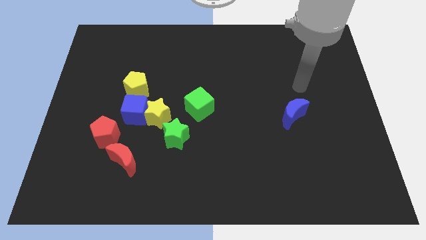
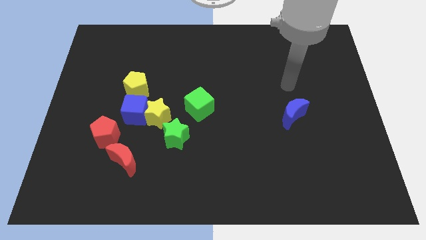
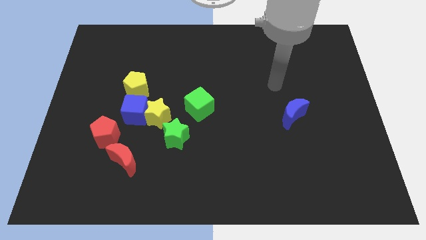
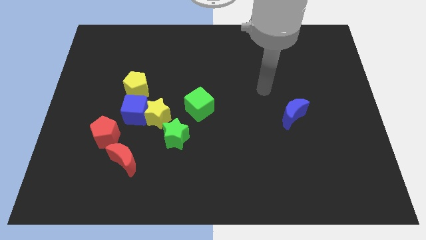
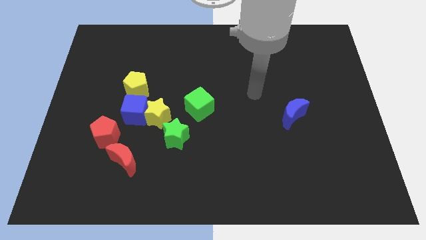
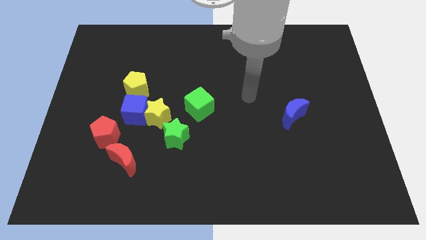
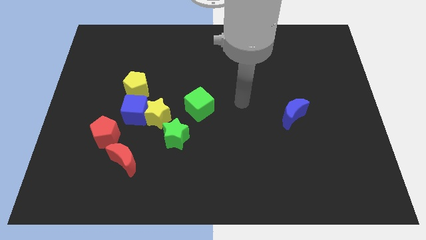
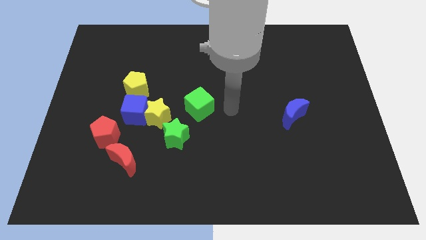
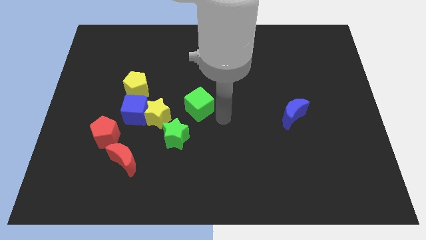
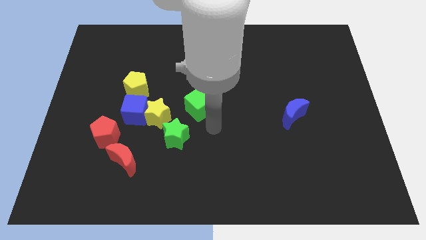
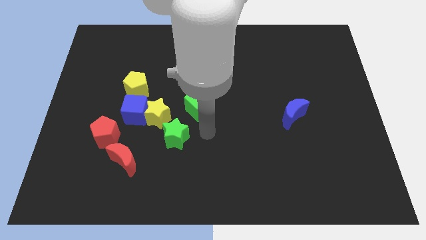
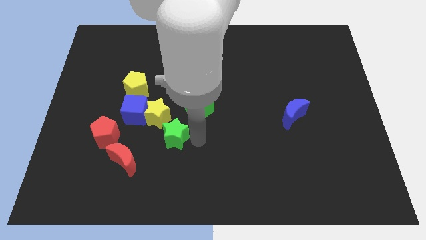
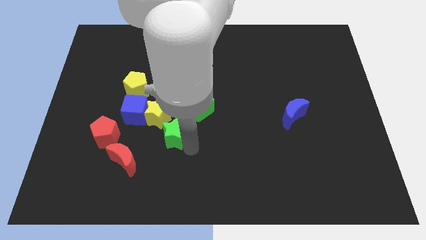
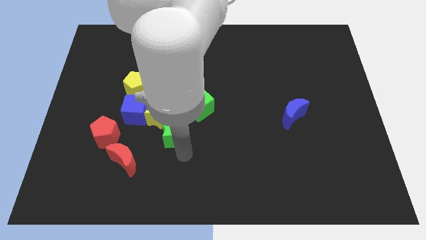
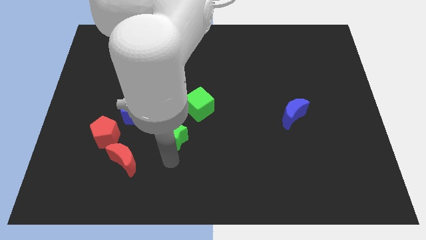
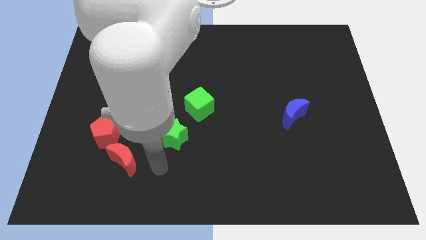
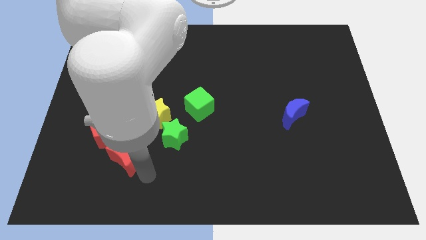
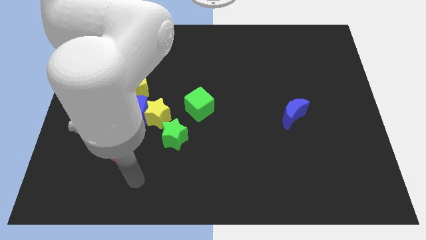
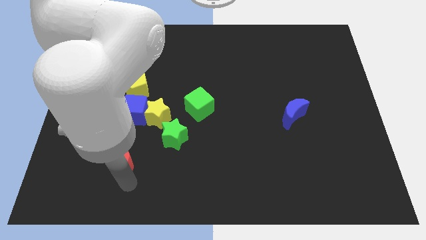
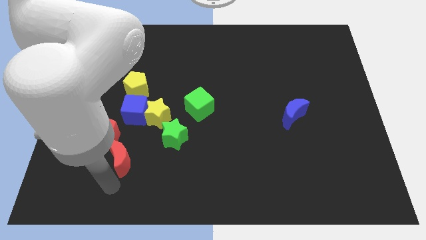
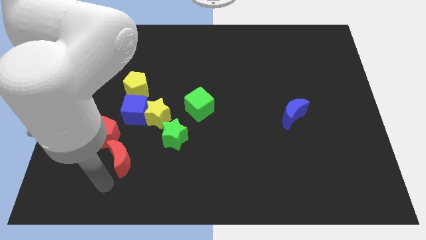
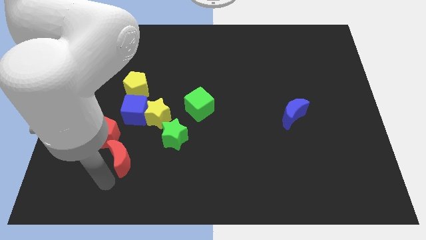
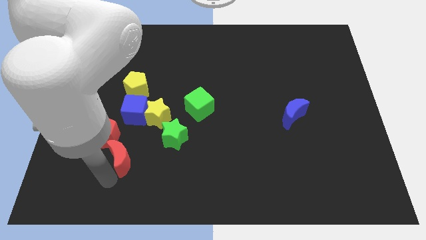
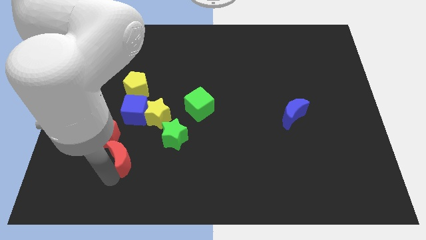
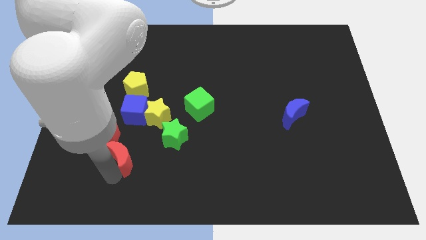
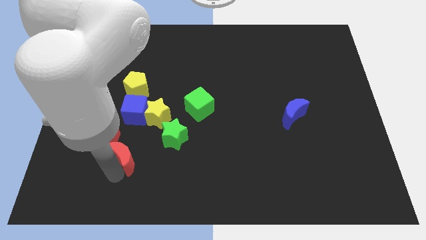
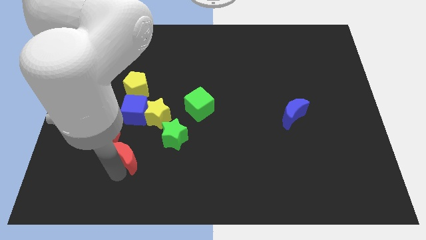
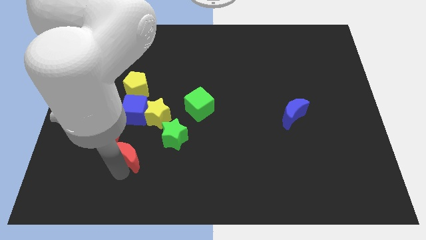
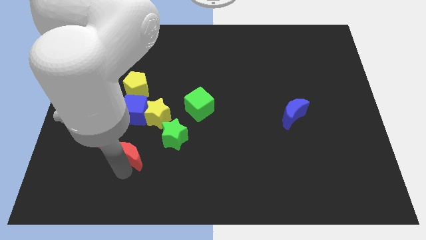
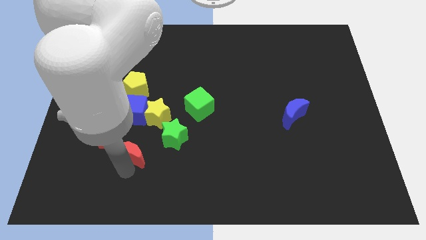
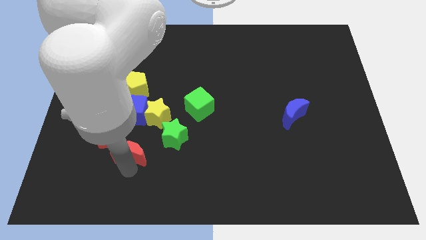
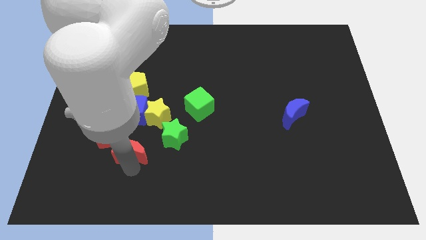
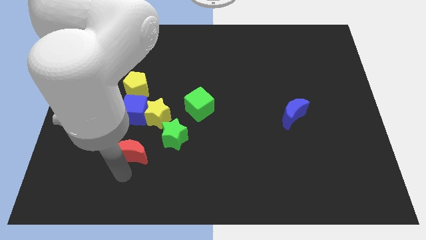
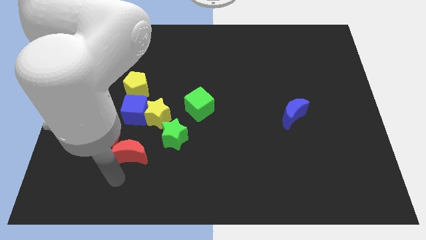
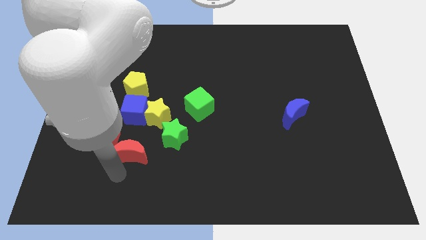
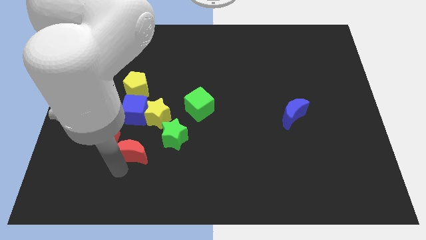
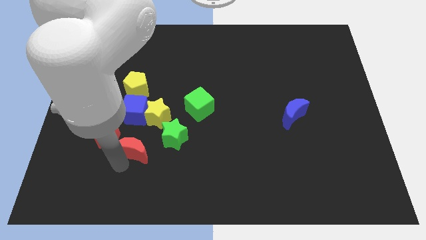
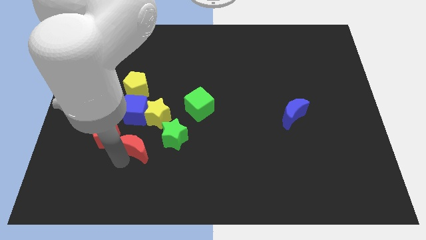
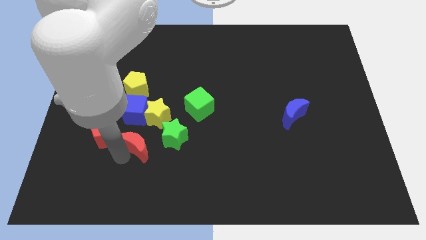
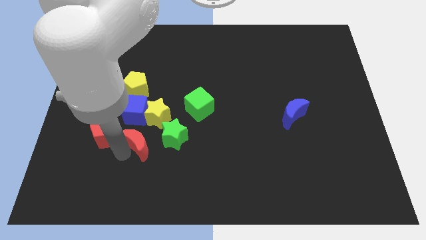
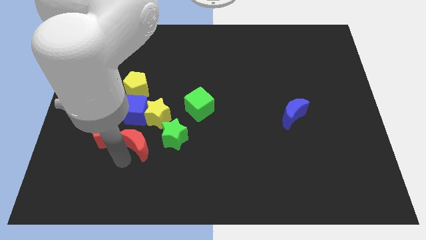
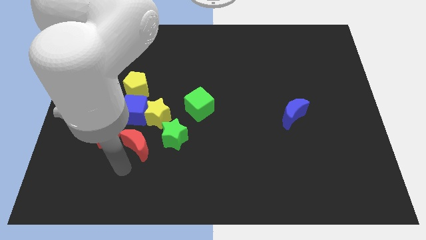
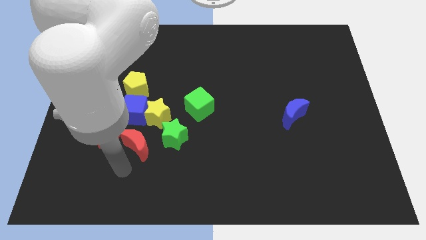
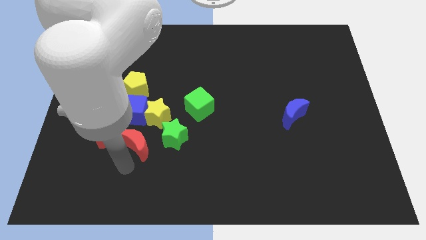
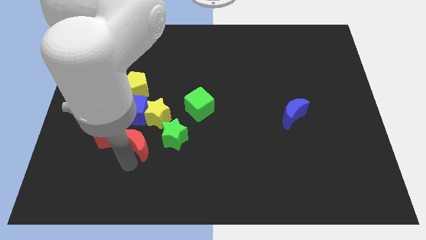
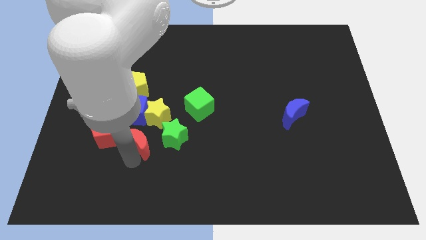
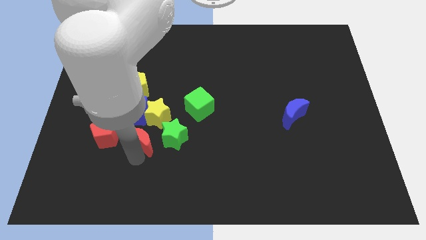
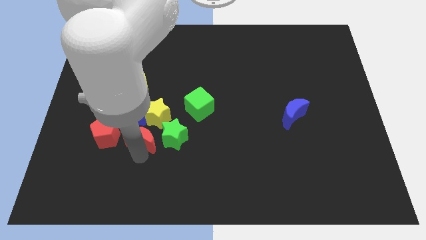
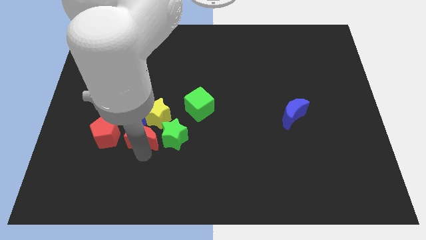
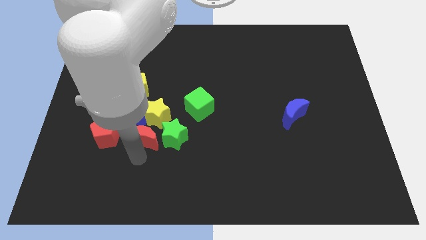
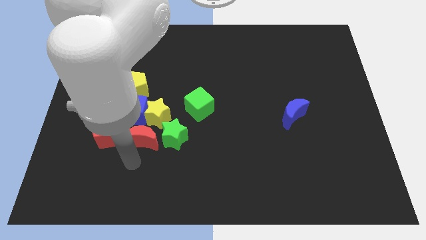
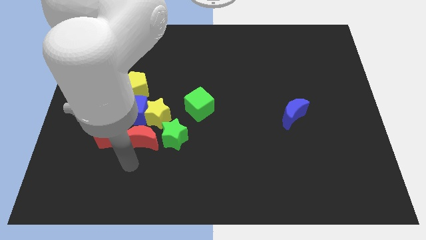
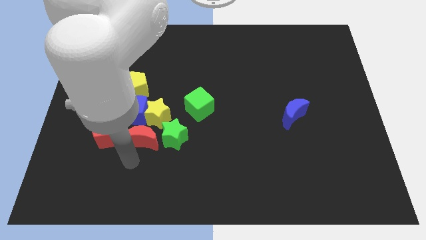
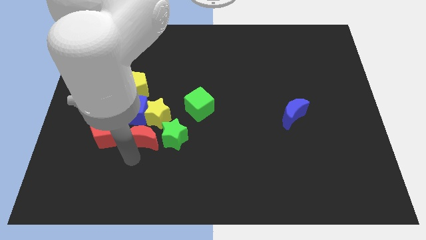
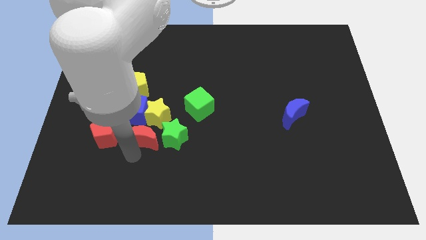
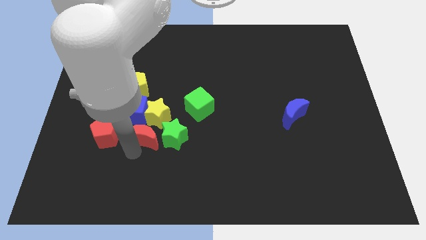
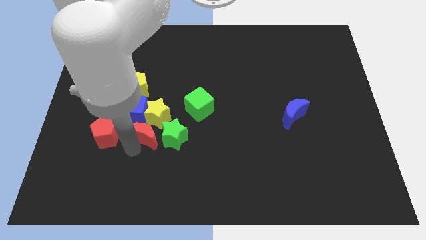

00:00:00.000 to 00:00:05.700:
push the red moon close to the yellow star

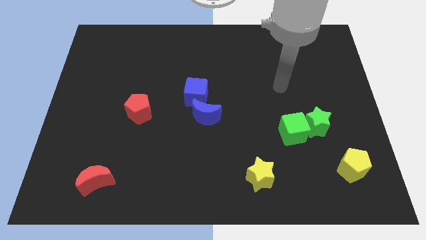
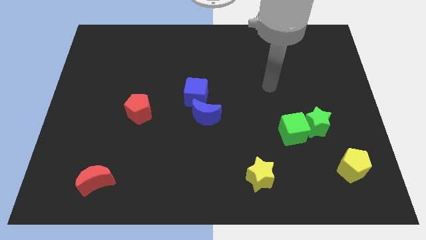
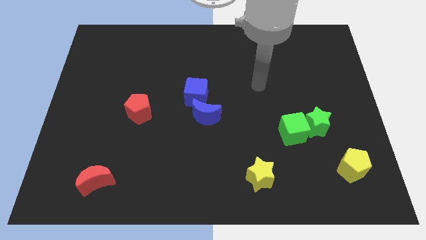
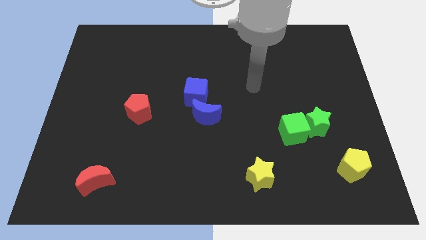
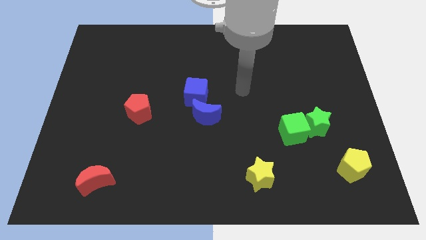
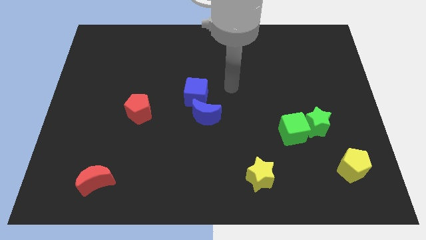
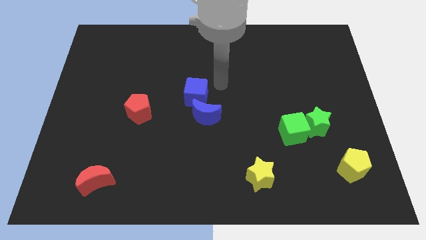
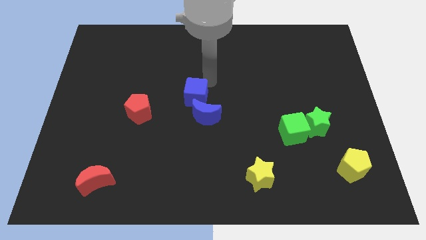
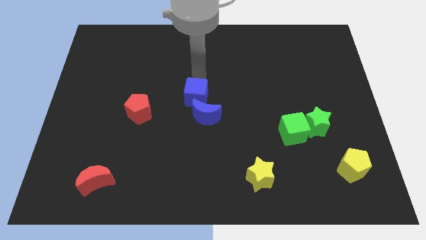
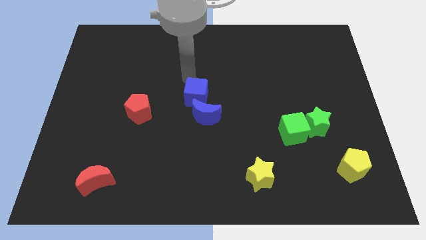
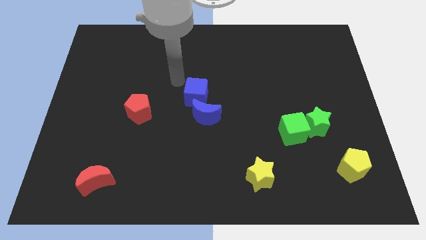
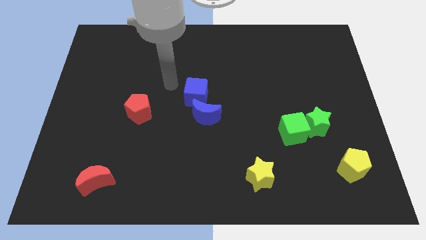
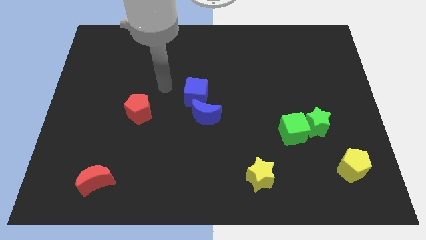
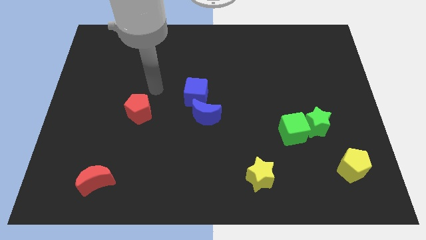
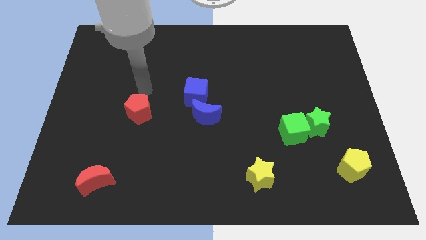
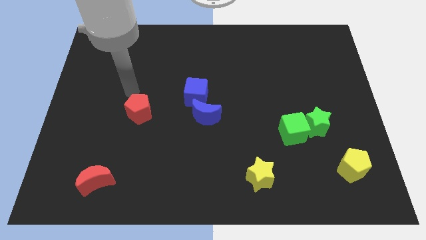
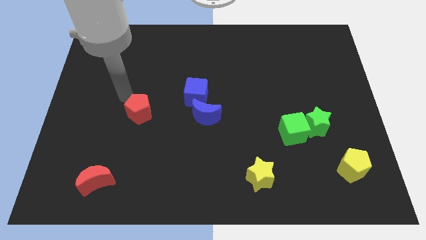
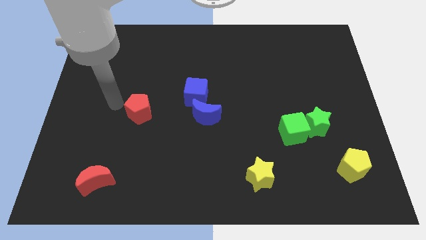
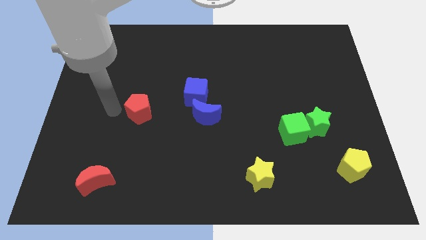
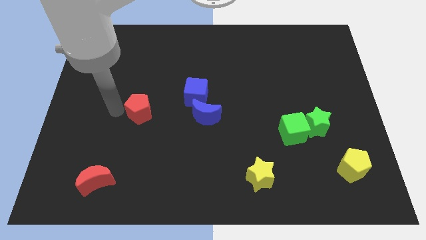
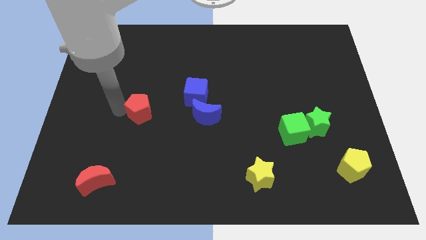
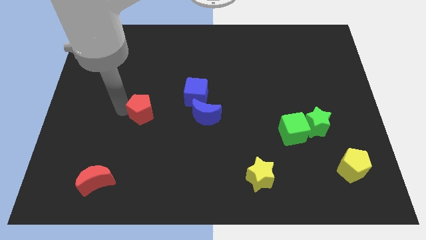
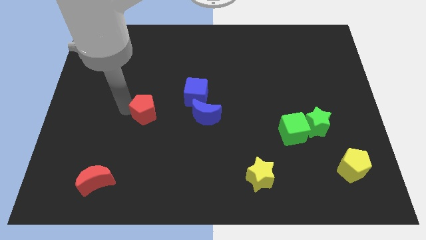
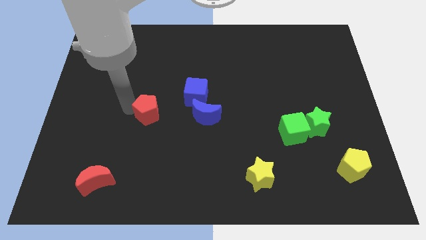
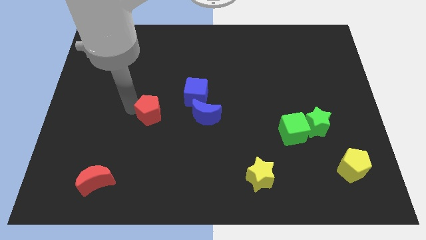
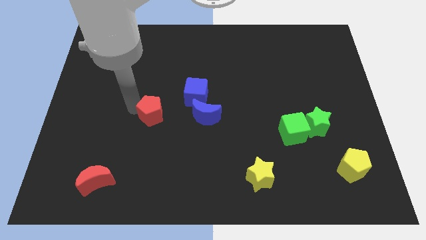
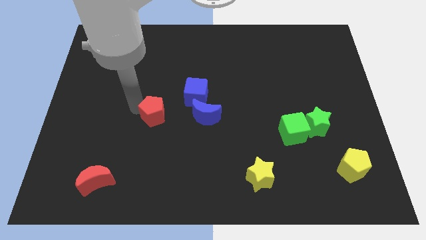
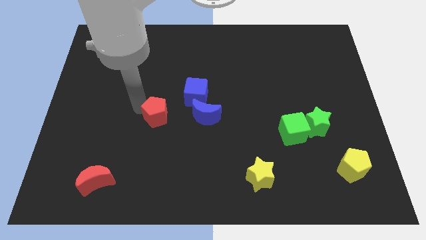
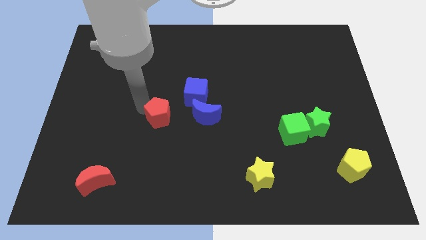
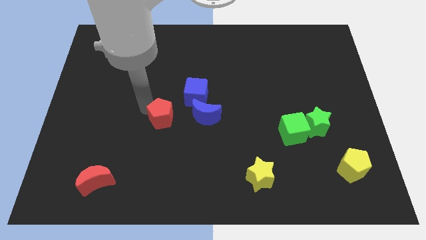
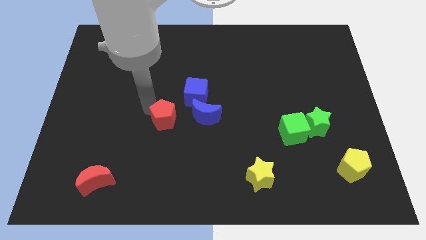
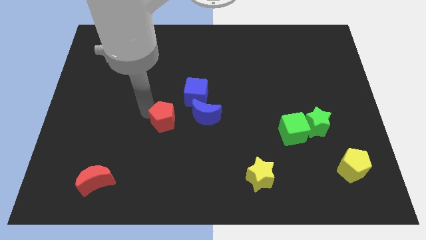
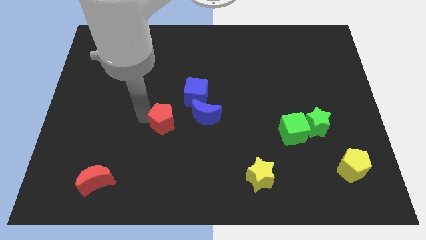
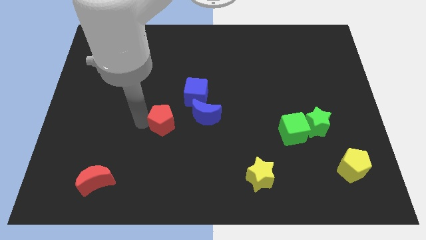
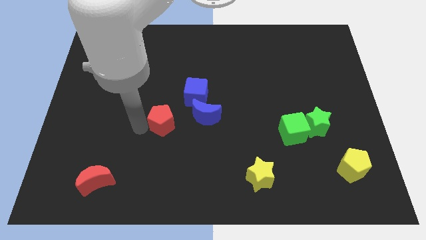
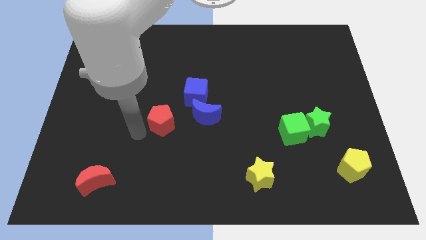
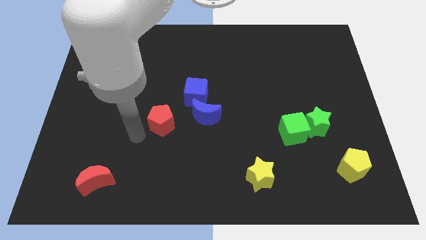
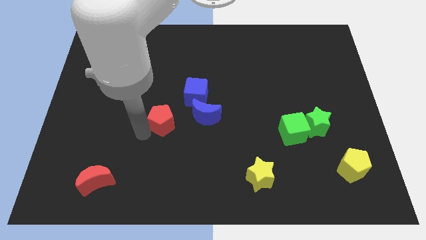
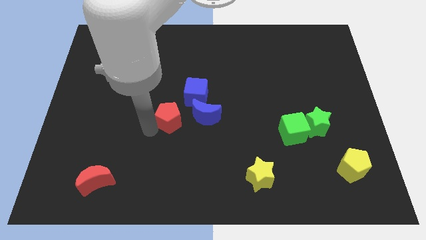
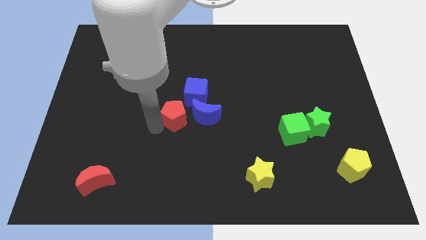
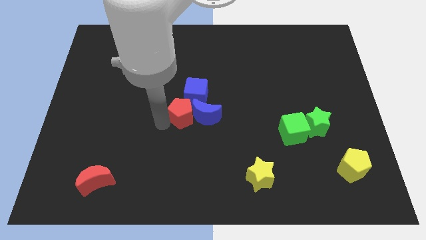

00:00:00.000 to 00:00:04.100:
move the red pentagon towards the blue moon
